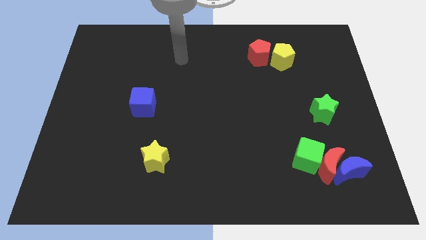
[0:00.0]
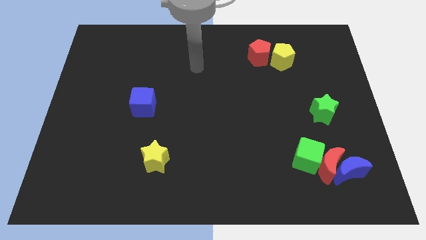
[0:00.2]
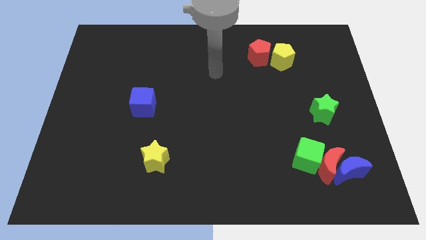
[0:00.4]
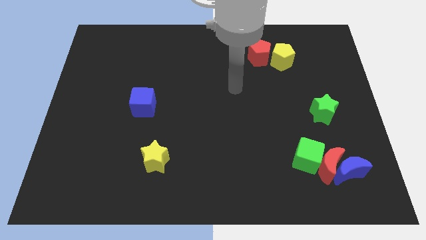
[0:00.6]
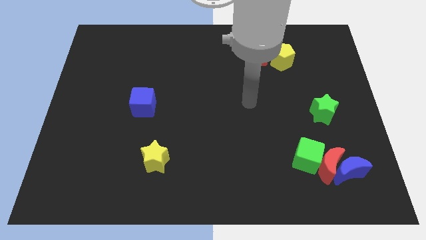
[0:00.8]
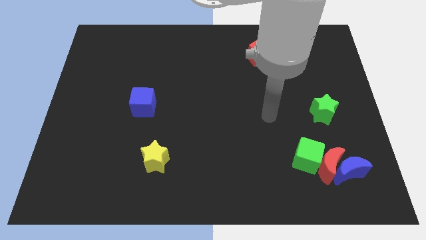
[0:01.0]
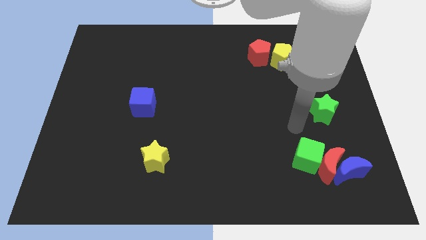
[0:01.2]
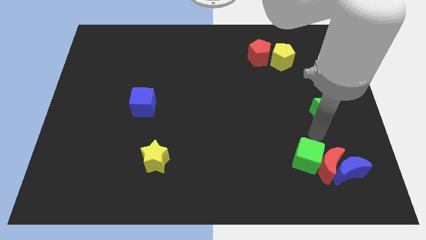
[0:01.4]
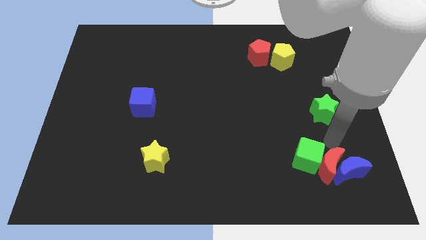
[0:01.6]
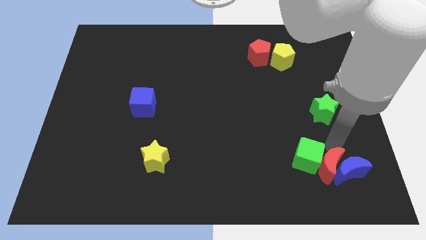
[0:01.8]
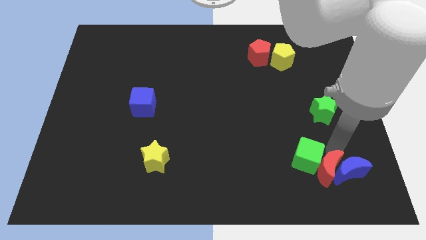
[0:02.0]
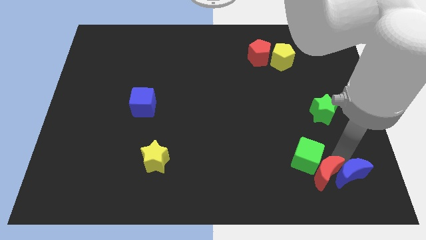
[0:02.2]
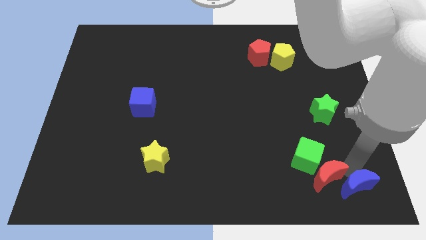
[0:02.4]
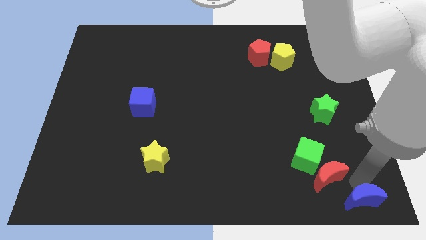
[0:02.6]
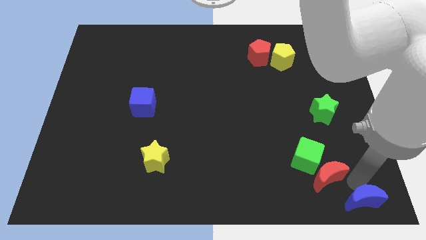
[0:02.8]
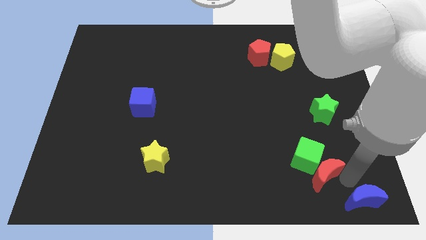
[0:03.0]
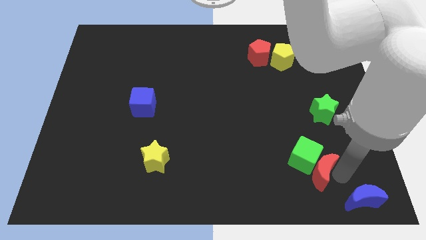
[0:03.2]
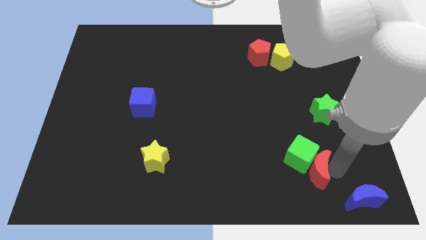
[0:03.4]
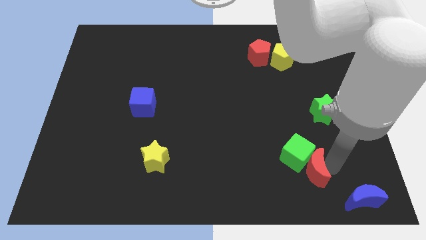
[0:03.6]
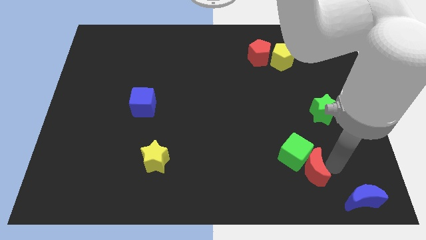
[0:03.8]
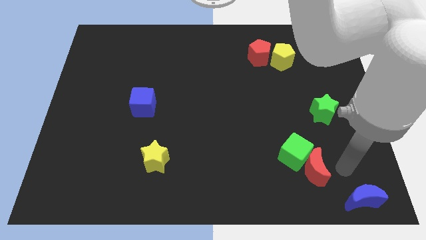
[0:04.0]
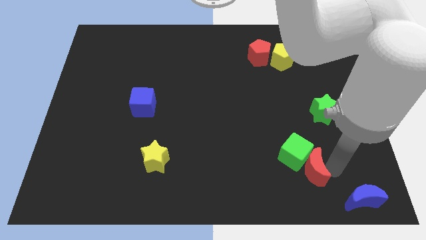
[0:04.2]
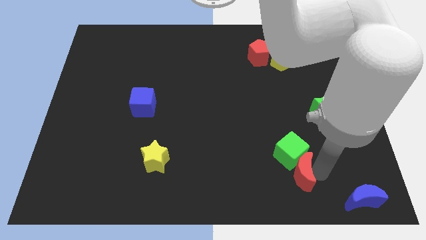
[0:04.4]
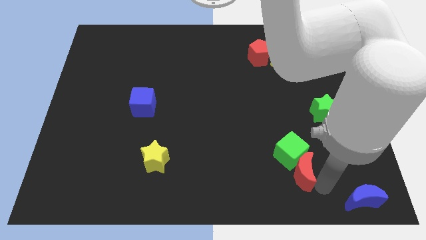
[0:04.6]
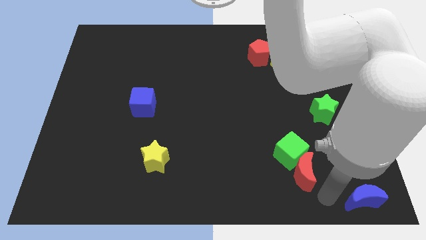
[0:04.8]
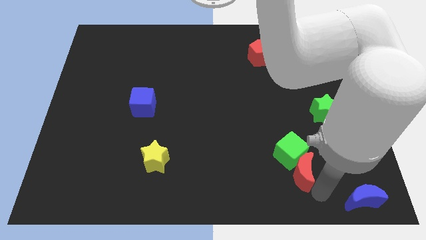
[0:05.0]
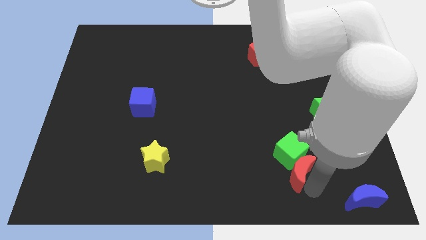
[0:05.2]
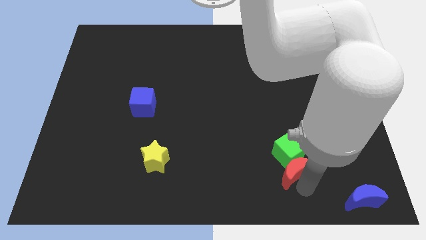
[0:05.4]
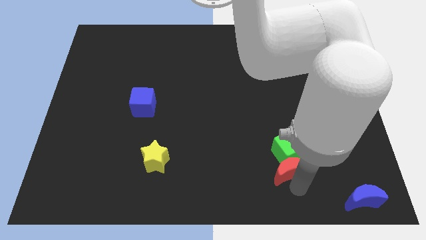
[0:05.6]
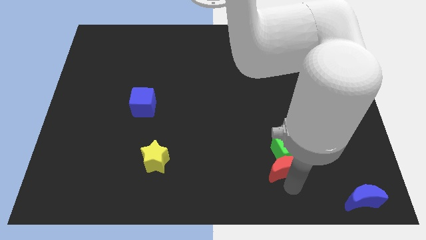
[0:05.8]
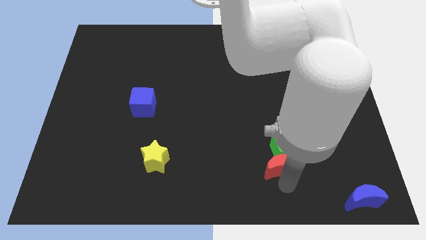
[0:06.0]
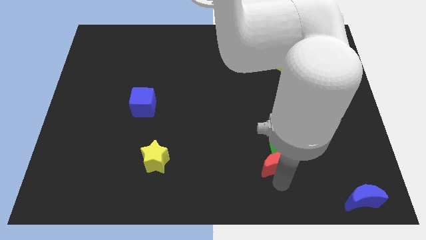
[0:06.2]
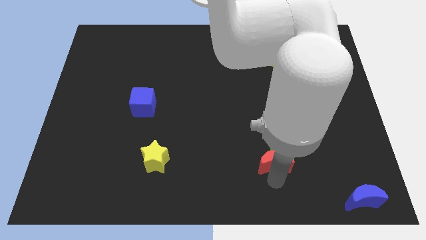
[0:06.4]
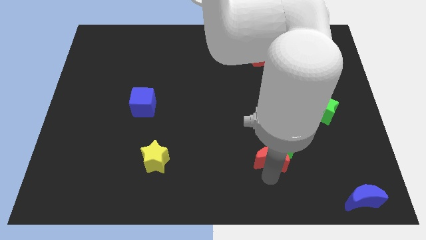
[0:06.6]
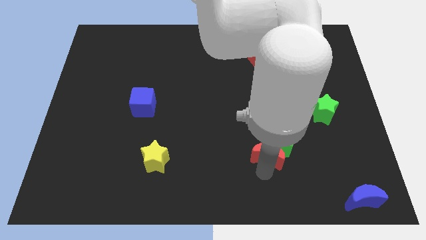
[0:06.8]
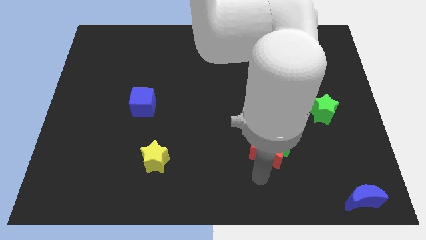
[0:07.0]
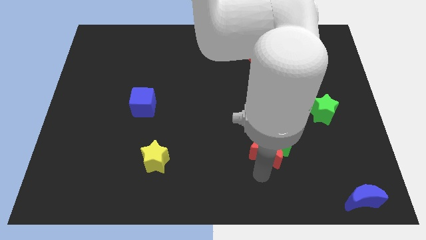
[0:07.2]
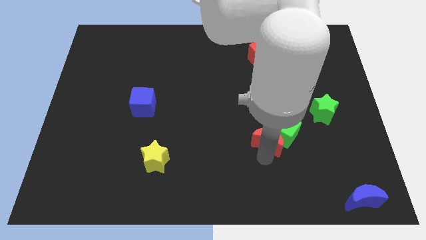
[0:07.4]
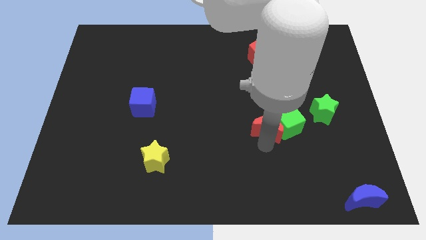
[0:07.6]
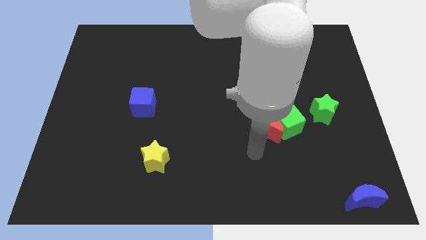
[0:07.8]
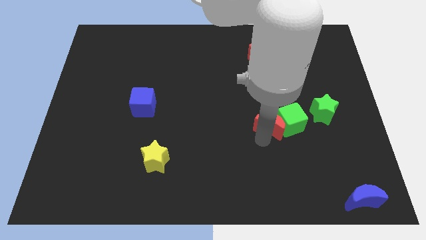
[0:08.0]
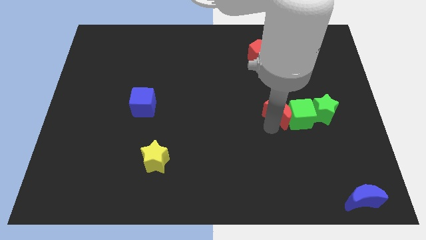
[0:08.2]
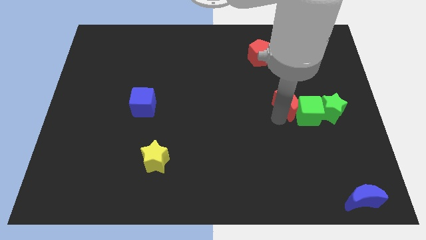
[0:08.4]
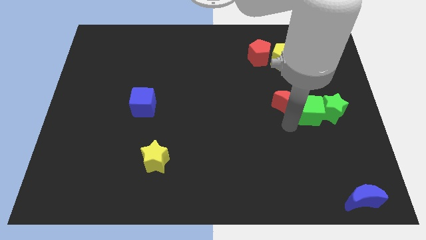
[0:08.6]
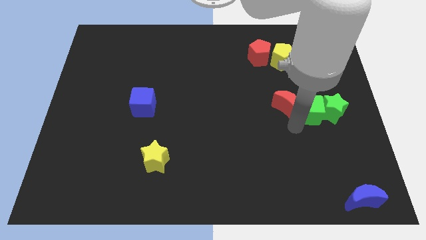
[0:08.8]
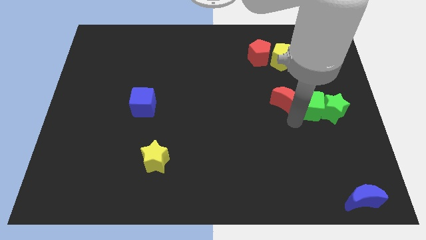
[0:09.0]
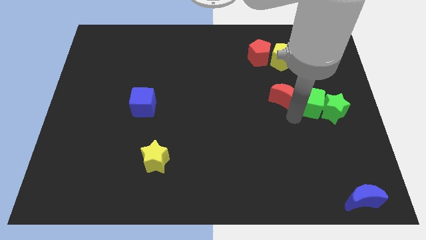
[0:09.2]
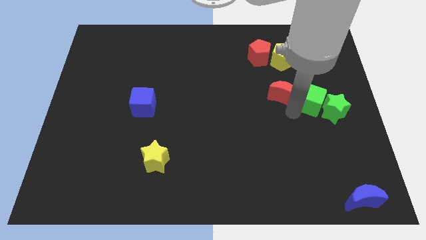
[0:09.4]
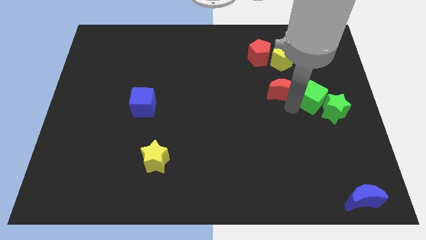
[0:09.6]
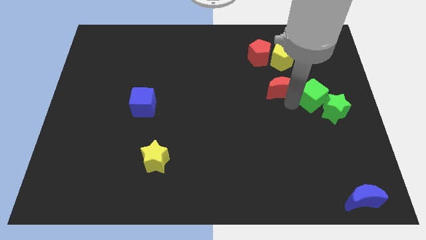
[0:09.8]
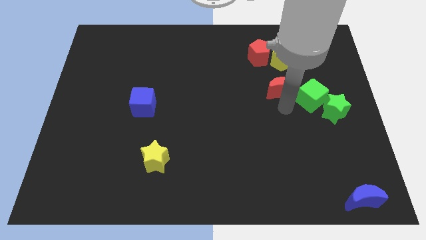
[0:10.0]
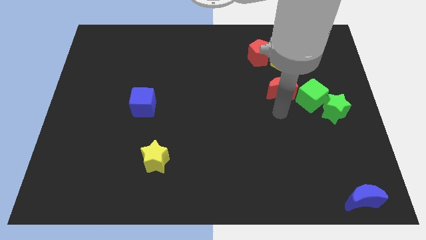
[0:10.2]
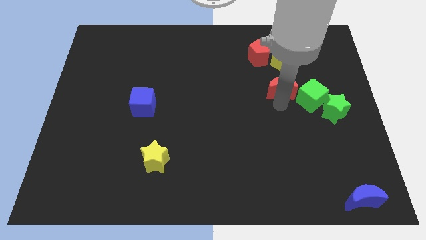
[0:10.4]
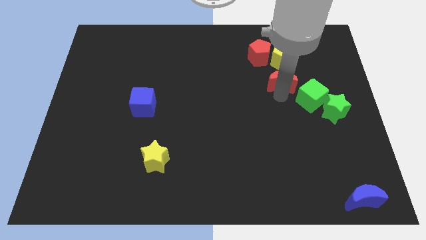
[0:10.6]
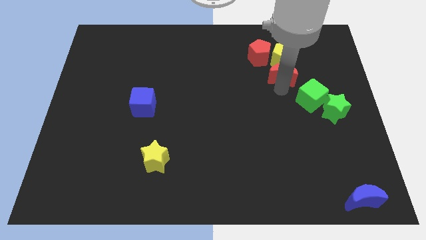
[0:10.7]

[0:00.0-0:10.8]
slide the red moon close to the yellow pentagon

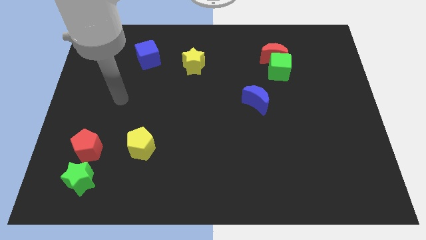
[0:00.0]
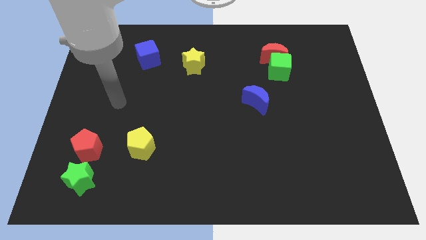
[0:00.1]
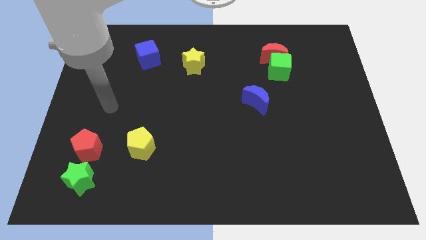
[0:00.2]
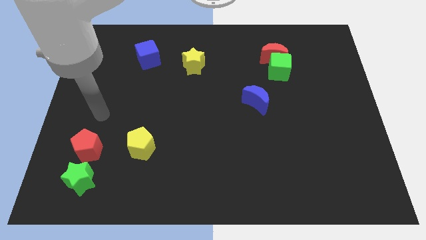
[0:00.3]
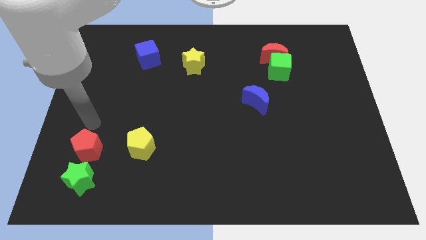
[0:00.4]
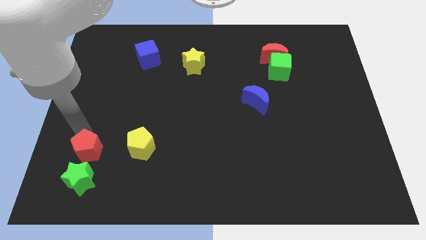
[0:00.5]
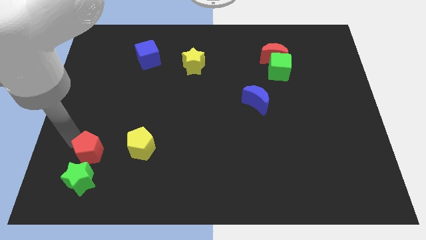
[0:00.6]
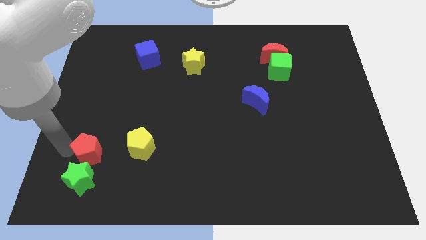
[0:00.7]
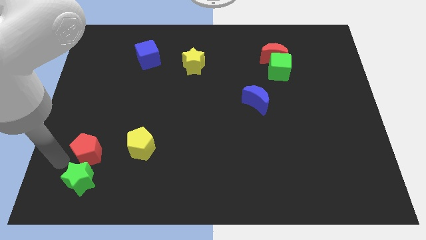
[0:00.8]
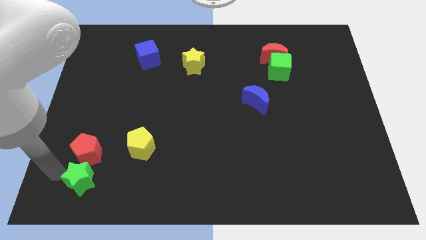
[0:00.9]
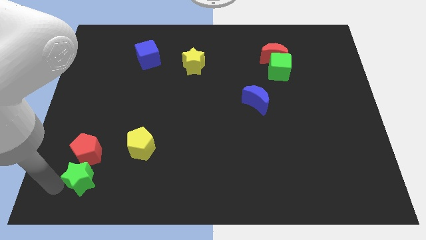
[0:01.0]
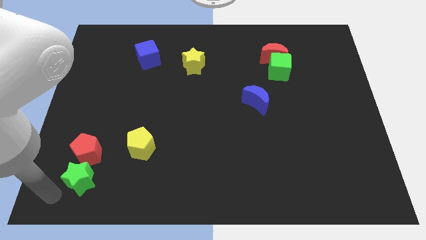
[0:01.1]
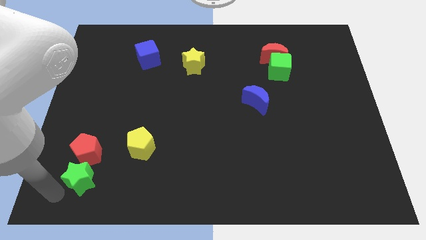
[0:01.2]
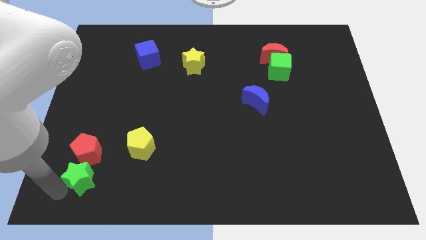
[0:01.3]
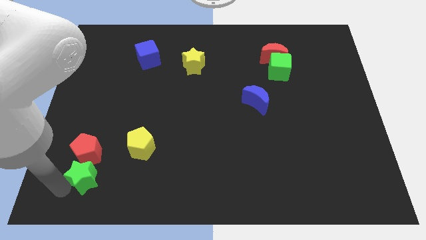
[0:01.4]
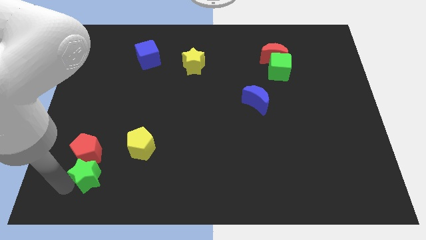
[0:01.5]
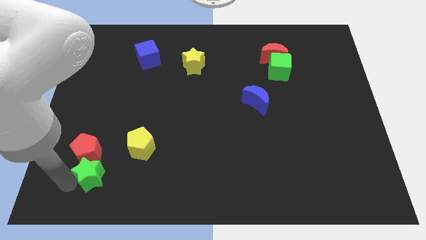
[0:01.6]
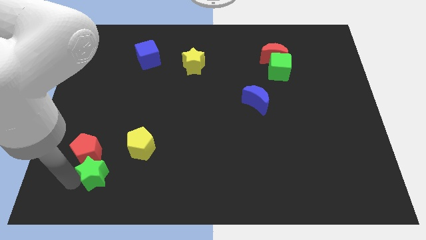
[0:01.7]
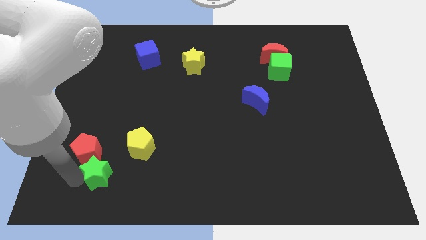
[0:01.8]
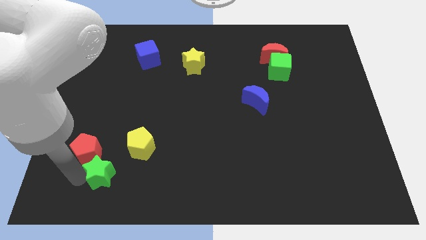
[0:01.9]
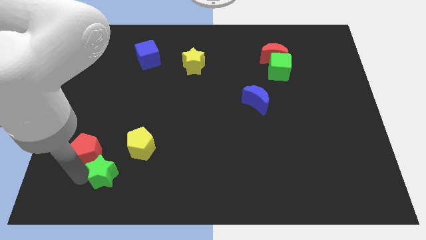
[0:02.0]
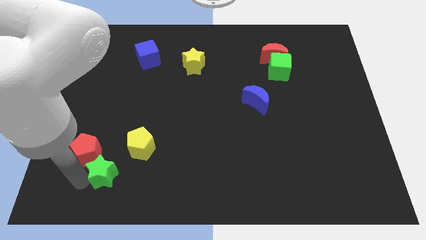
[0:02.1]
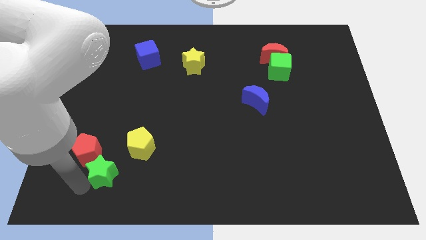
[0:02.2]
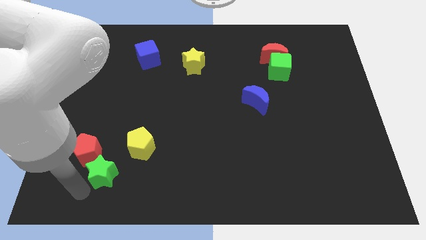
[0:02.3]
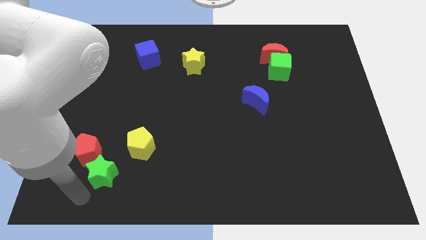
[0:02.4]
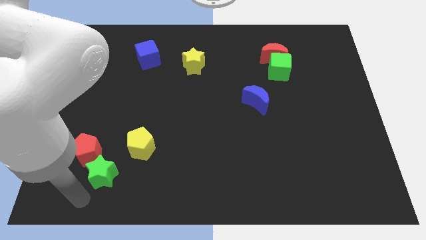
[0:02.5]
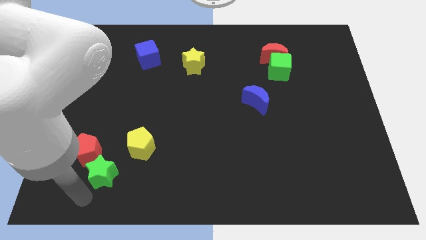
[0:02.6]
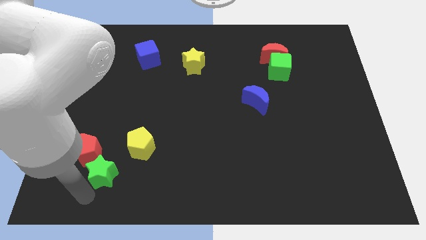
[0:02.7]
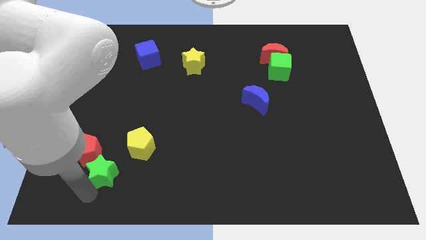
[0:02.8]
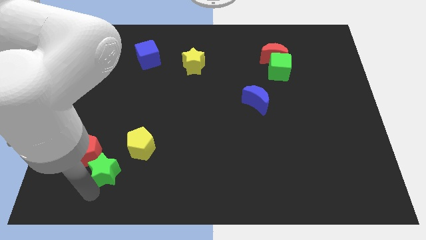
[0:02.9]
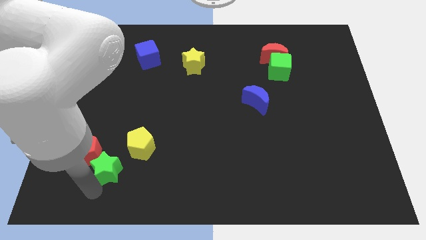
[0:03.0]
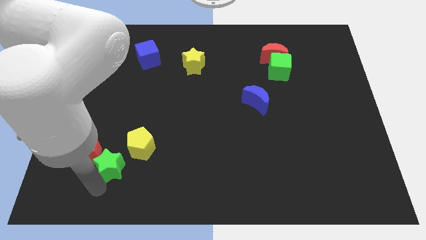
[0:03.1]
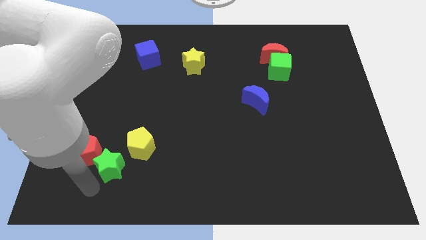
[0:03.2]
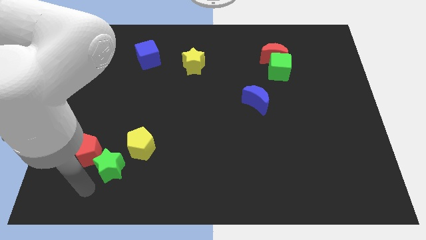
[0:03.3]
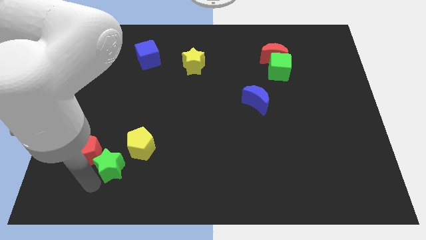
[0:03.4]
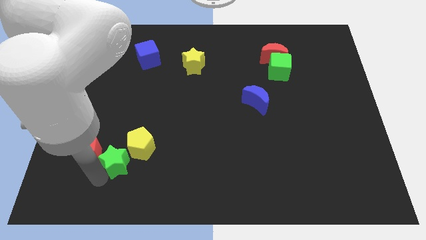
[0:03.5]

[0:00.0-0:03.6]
push the green star towards the yellow pentagon
